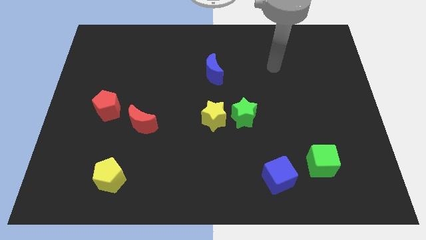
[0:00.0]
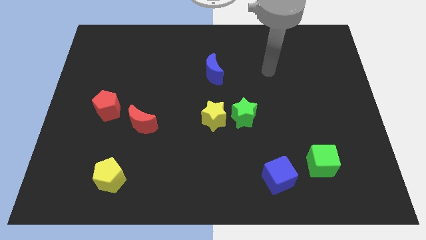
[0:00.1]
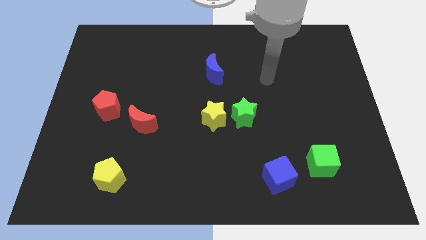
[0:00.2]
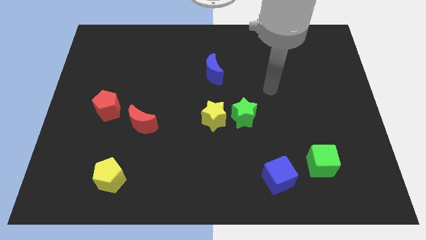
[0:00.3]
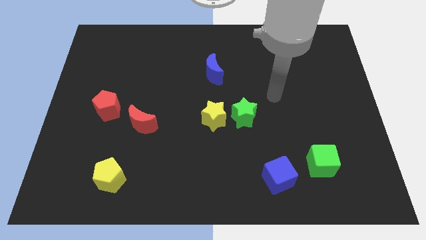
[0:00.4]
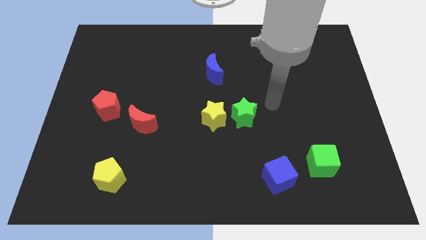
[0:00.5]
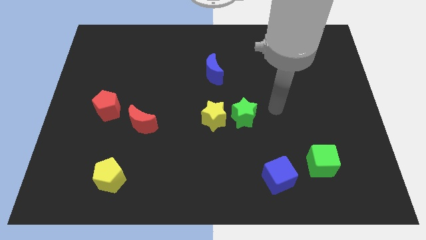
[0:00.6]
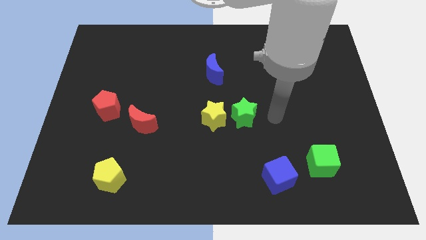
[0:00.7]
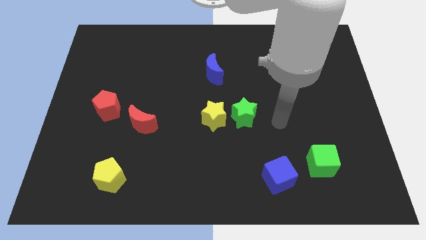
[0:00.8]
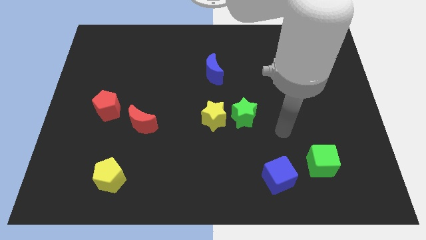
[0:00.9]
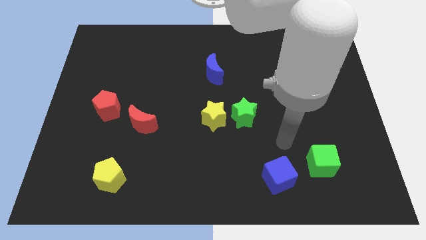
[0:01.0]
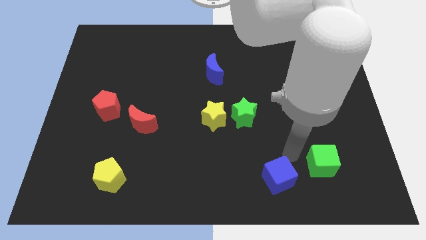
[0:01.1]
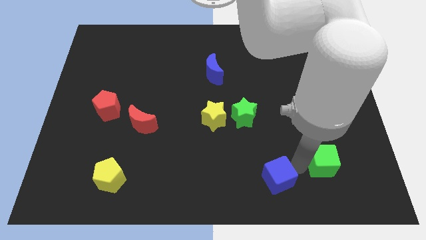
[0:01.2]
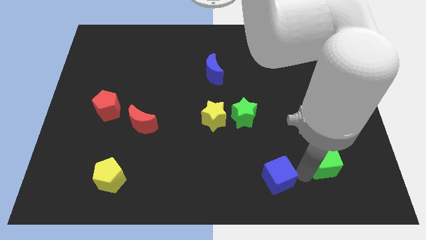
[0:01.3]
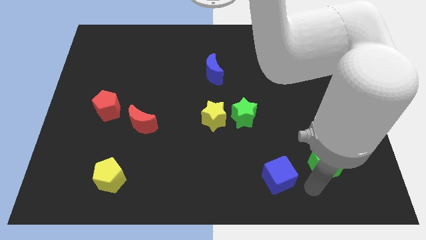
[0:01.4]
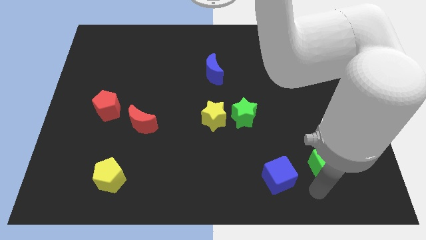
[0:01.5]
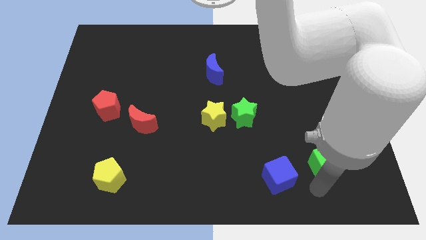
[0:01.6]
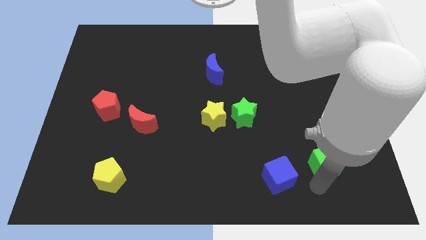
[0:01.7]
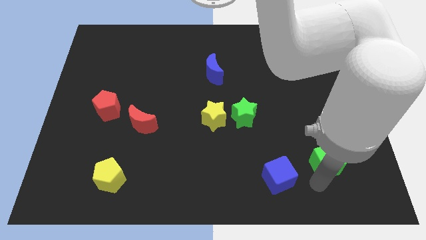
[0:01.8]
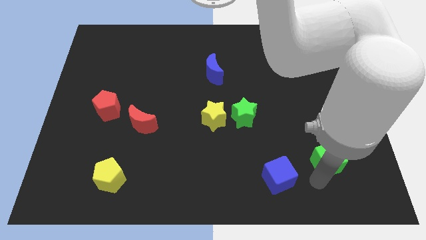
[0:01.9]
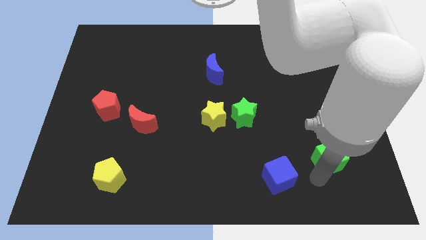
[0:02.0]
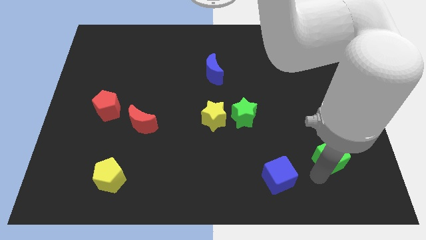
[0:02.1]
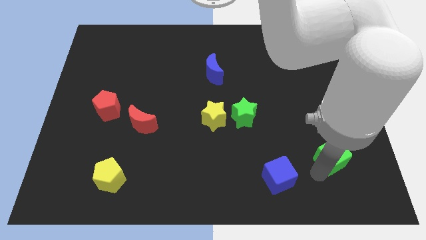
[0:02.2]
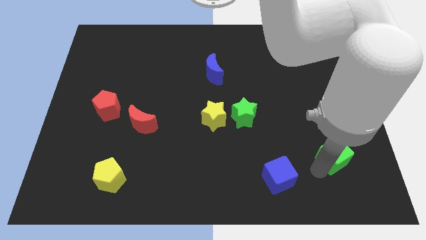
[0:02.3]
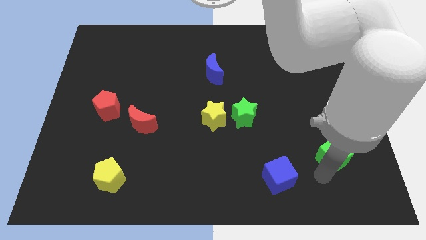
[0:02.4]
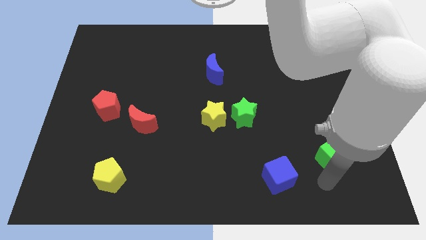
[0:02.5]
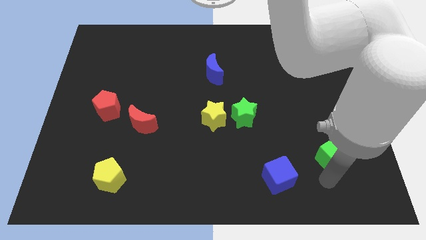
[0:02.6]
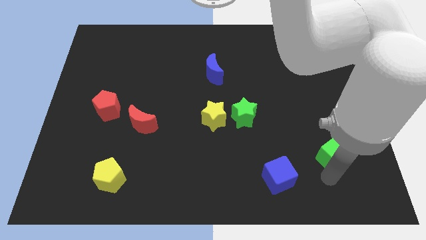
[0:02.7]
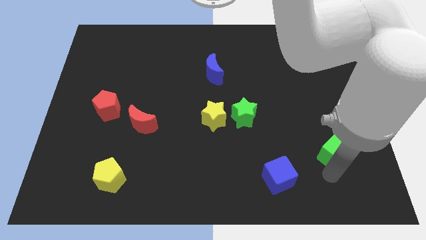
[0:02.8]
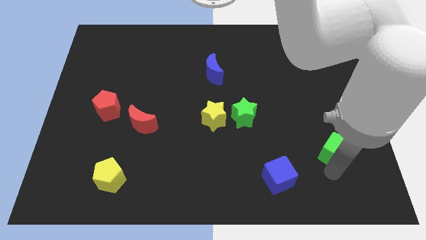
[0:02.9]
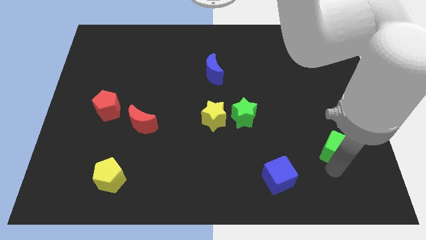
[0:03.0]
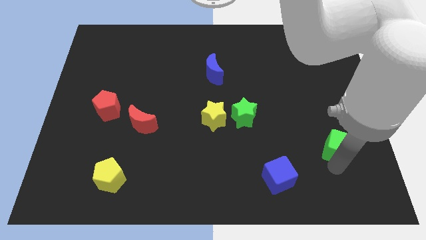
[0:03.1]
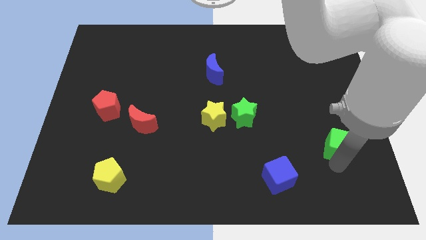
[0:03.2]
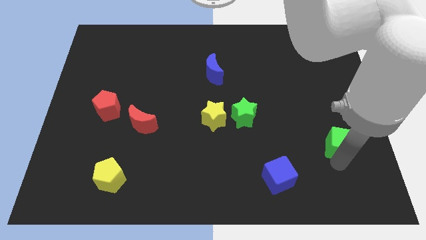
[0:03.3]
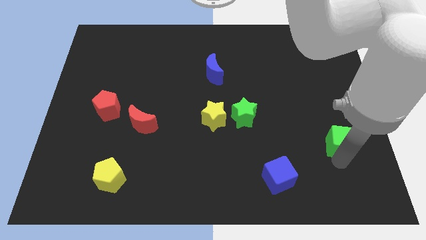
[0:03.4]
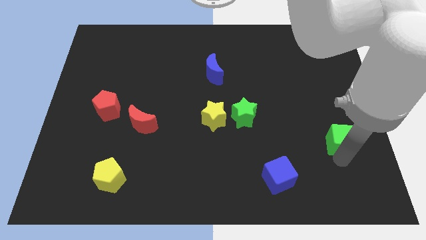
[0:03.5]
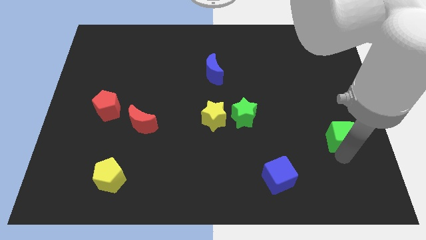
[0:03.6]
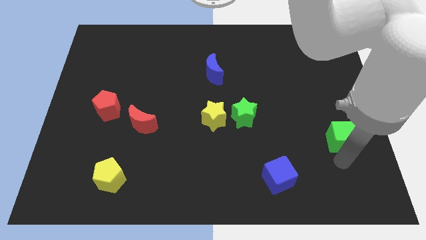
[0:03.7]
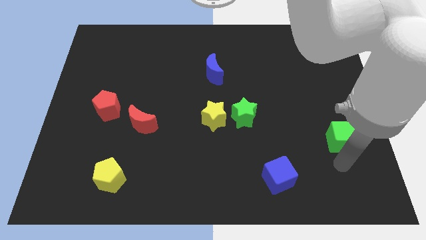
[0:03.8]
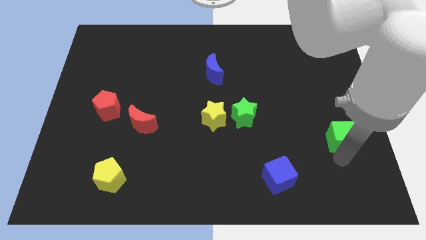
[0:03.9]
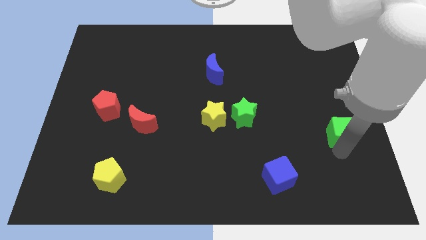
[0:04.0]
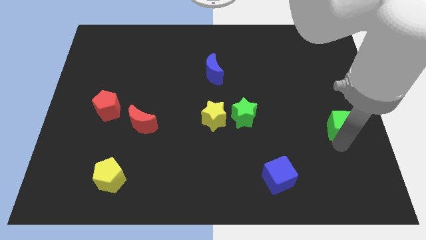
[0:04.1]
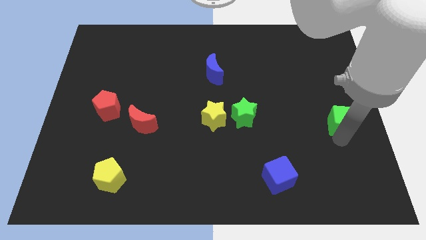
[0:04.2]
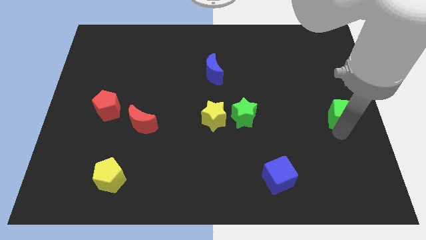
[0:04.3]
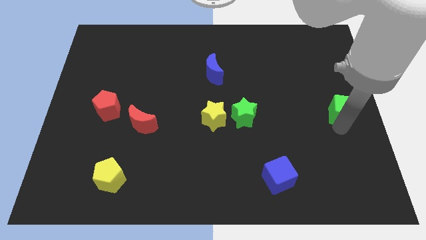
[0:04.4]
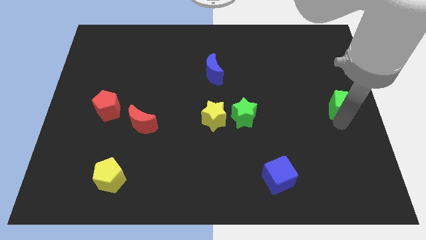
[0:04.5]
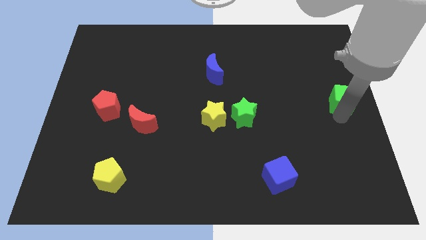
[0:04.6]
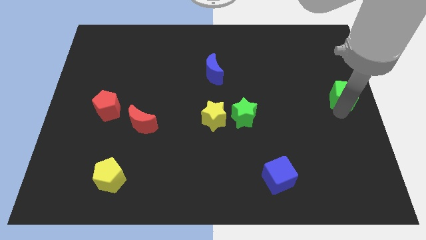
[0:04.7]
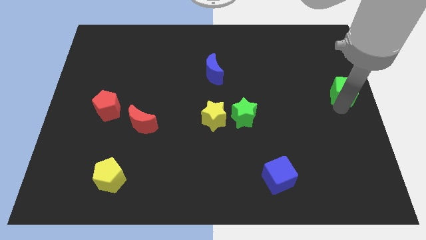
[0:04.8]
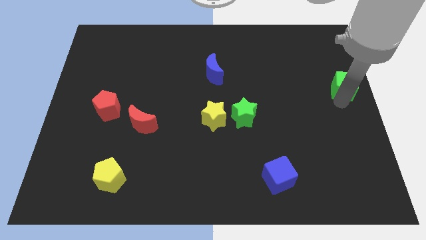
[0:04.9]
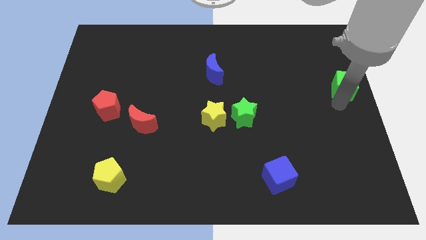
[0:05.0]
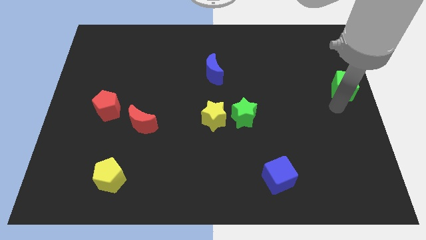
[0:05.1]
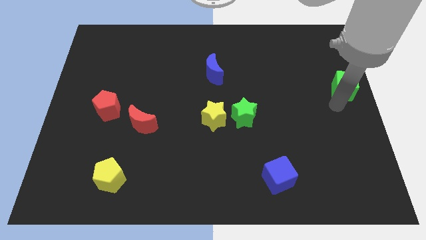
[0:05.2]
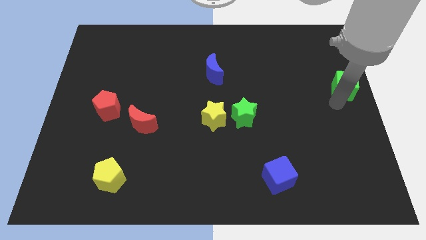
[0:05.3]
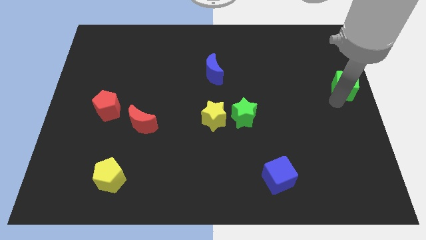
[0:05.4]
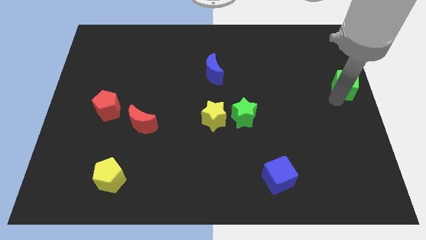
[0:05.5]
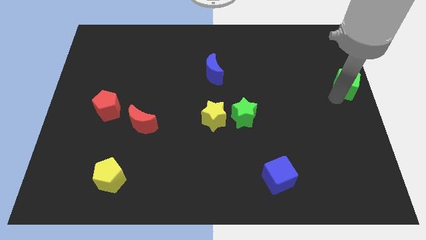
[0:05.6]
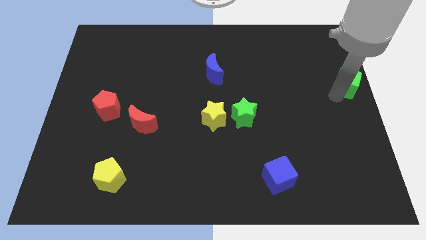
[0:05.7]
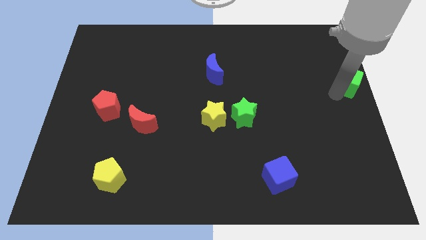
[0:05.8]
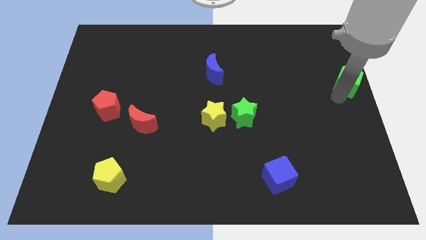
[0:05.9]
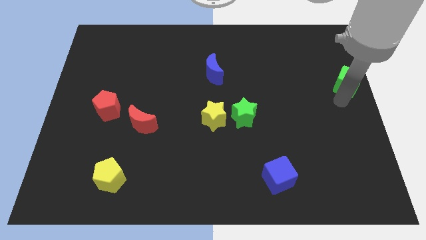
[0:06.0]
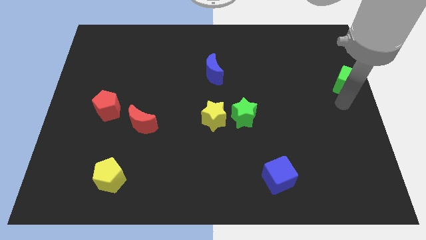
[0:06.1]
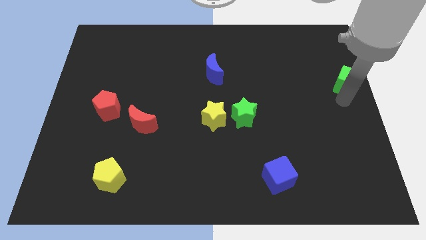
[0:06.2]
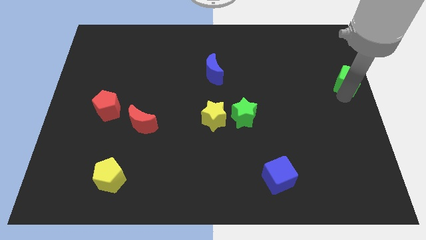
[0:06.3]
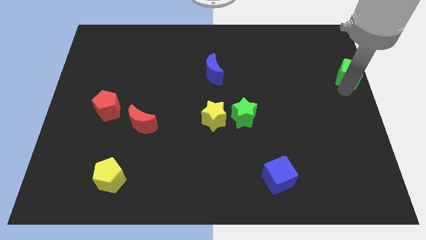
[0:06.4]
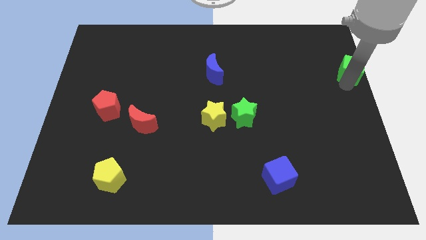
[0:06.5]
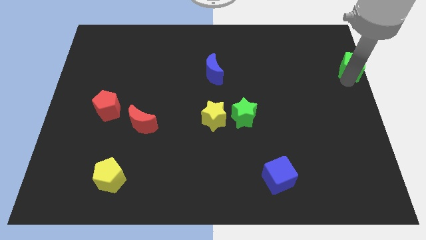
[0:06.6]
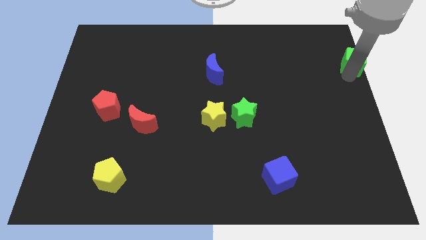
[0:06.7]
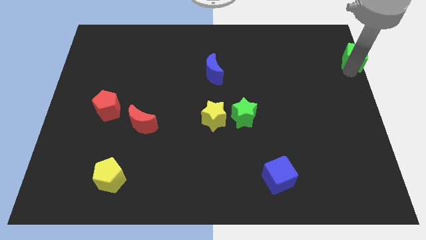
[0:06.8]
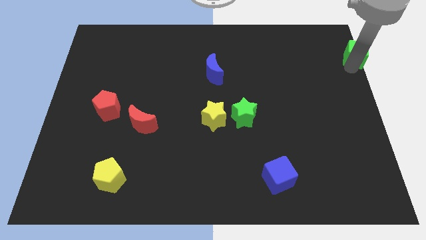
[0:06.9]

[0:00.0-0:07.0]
push the green cube to the upper right corner
